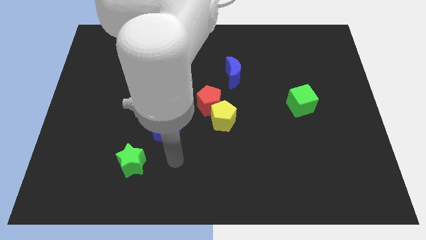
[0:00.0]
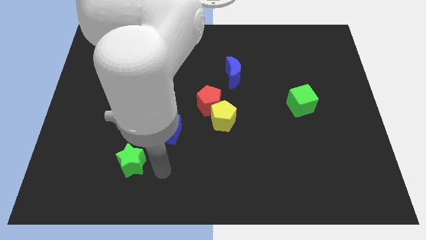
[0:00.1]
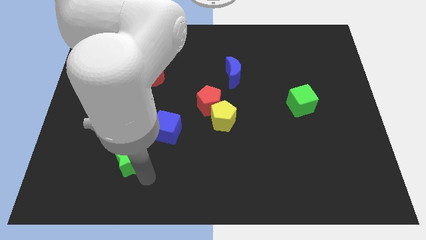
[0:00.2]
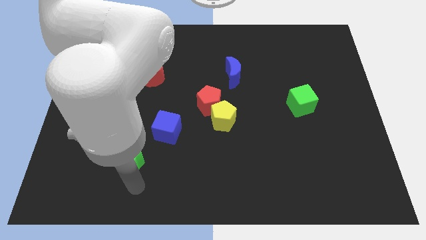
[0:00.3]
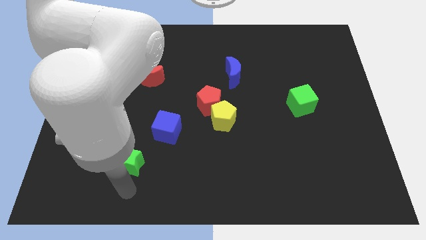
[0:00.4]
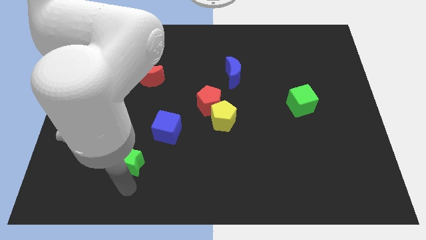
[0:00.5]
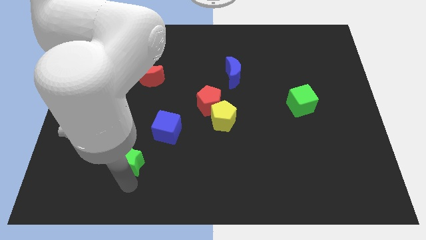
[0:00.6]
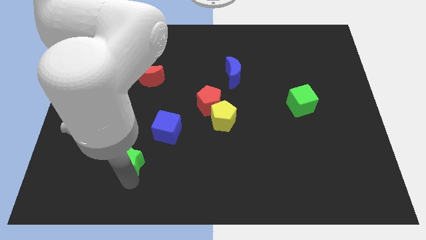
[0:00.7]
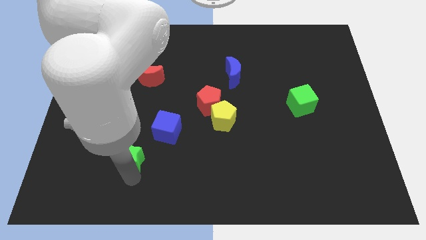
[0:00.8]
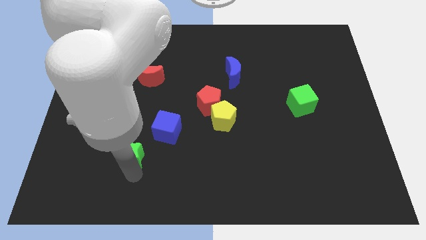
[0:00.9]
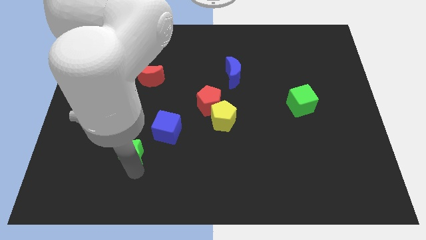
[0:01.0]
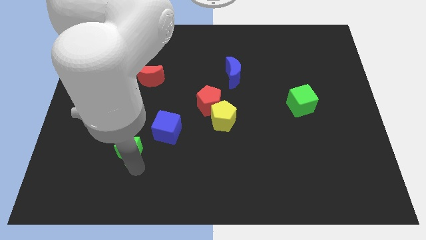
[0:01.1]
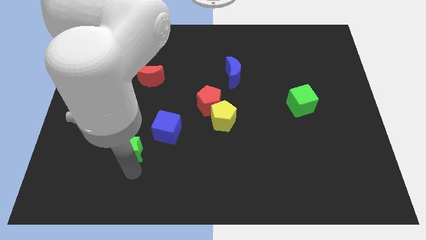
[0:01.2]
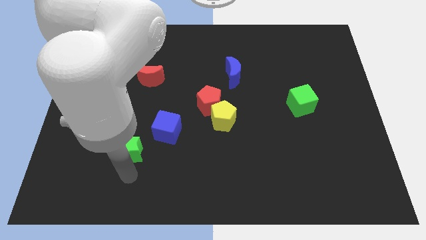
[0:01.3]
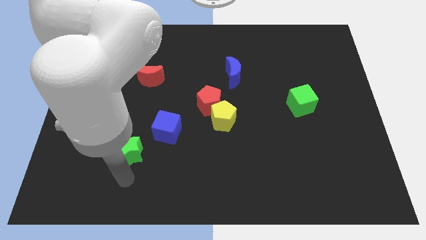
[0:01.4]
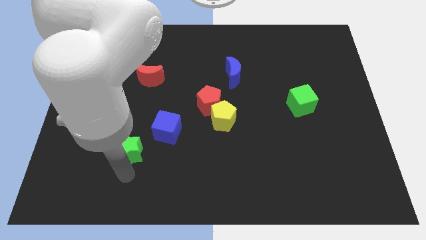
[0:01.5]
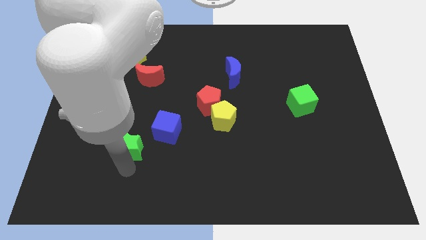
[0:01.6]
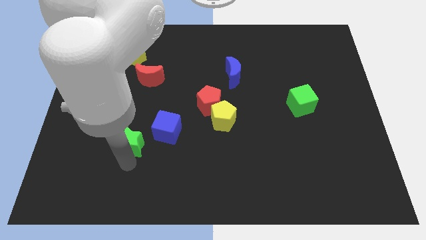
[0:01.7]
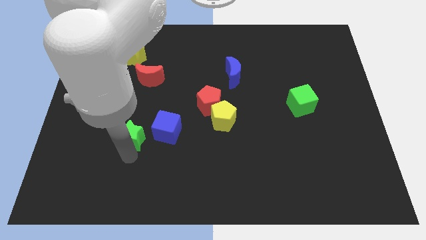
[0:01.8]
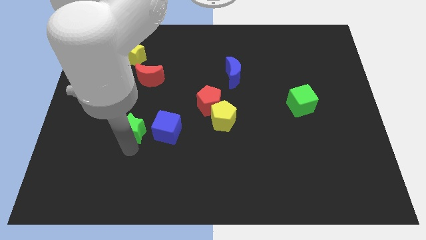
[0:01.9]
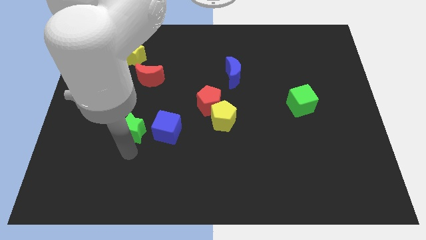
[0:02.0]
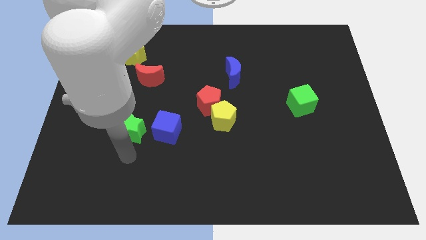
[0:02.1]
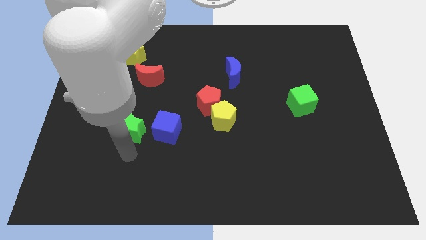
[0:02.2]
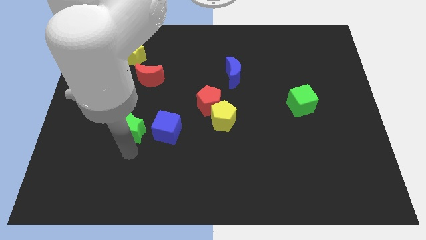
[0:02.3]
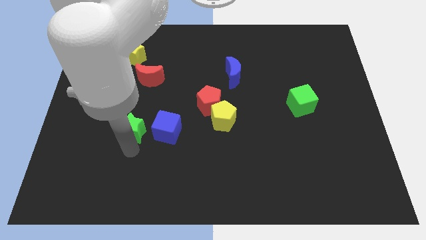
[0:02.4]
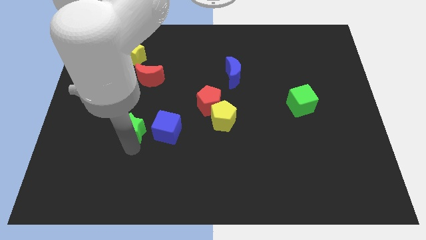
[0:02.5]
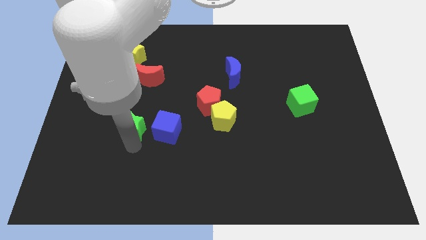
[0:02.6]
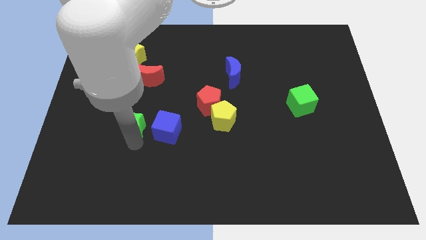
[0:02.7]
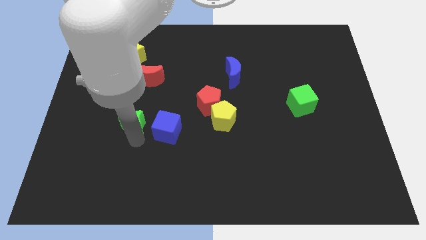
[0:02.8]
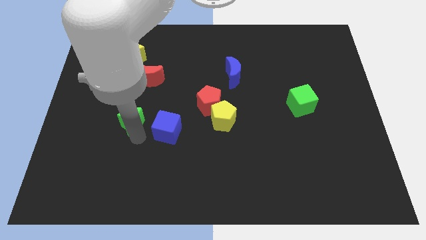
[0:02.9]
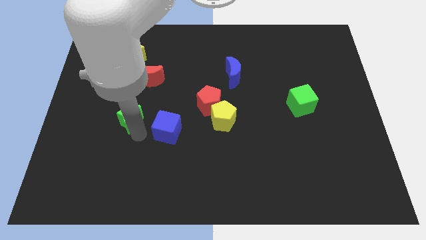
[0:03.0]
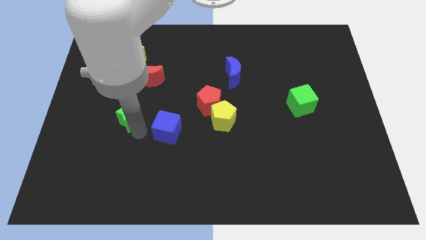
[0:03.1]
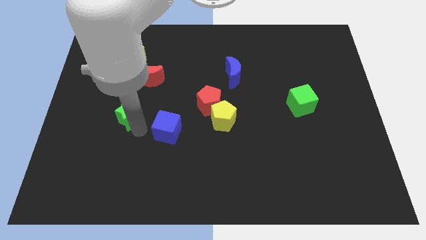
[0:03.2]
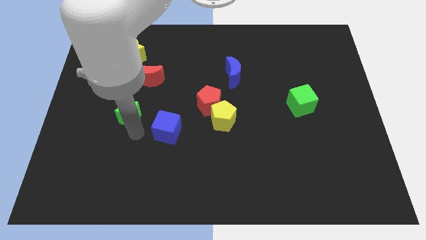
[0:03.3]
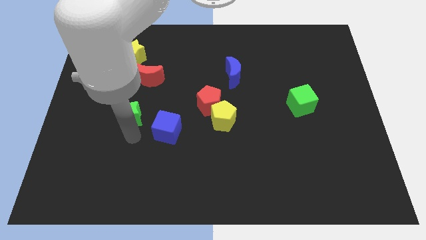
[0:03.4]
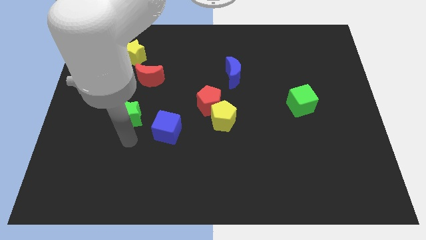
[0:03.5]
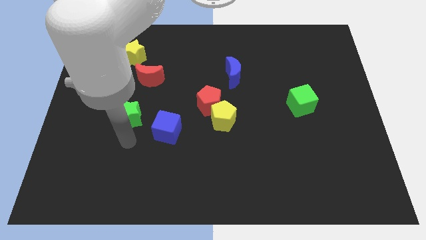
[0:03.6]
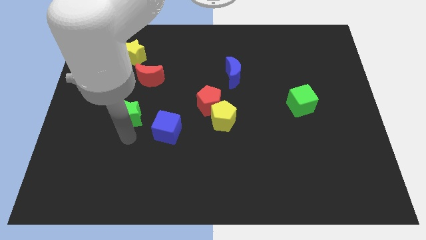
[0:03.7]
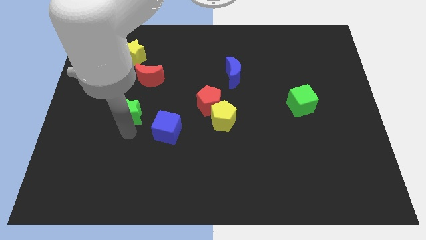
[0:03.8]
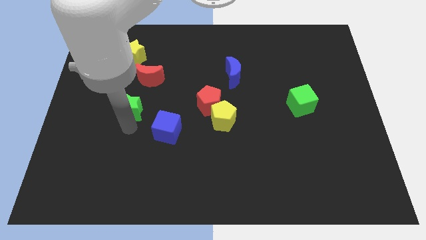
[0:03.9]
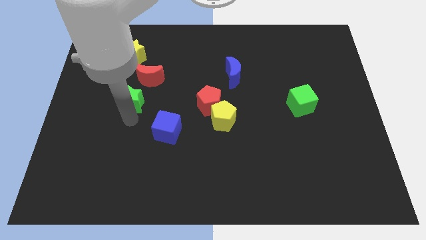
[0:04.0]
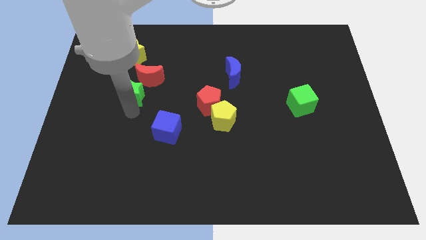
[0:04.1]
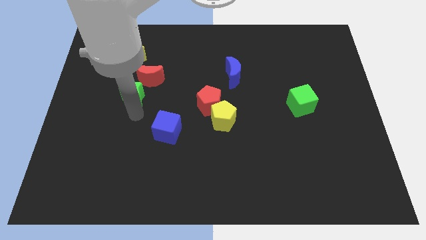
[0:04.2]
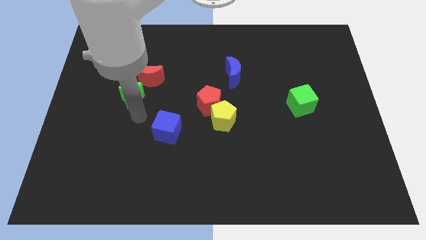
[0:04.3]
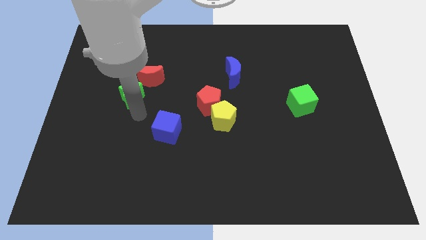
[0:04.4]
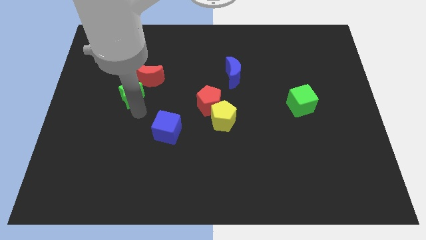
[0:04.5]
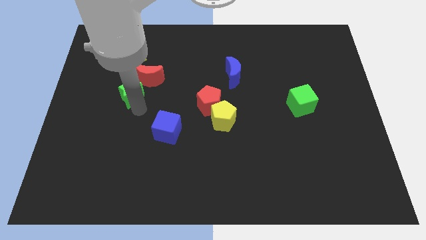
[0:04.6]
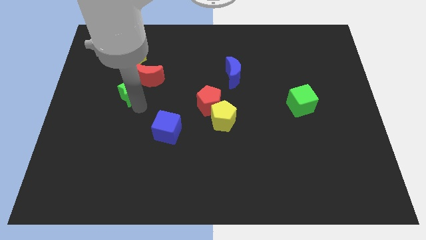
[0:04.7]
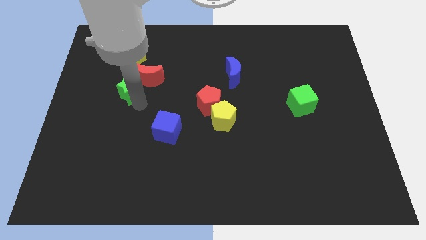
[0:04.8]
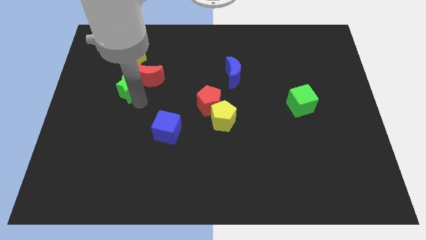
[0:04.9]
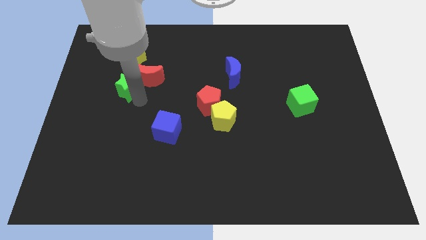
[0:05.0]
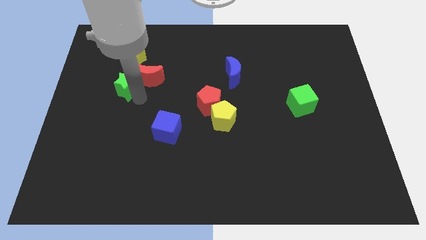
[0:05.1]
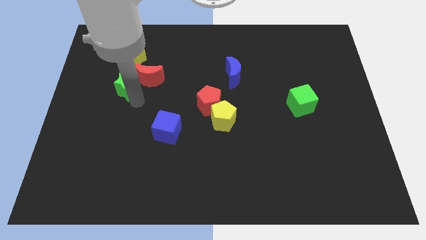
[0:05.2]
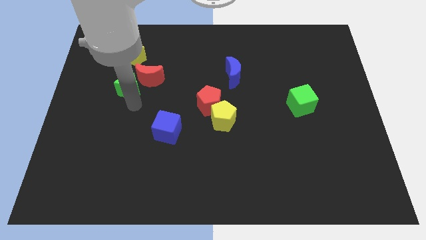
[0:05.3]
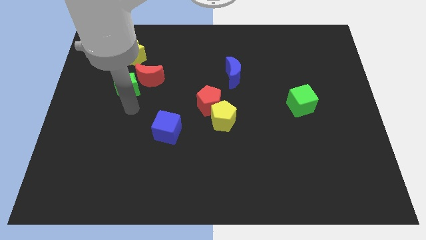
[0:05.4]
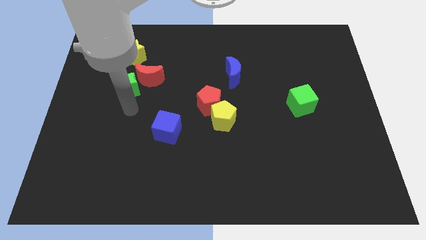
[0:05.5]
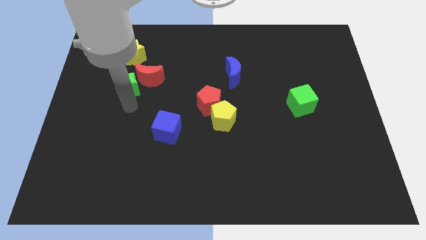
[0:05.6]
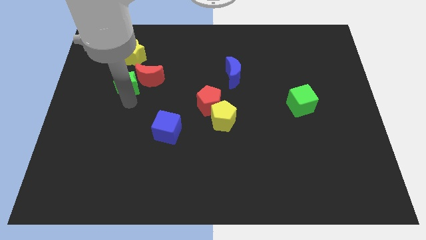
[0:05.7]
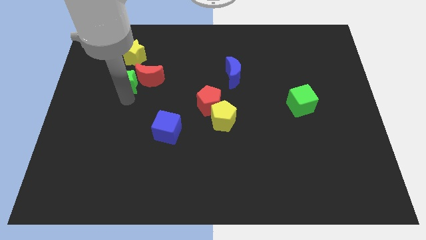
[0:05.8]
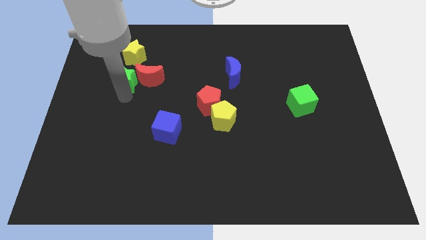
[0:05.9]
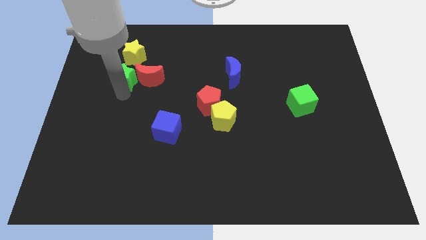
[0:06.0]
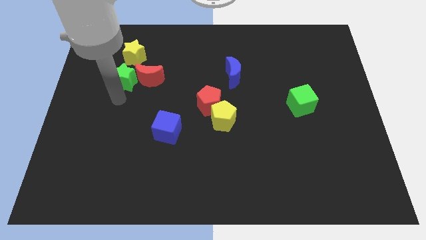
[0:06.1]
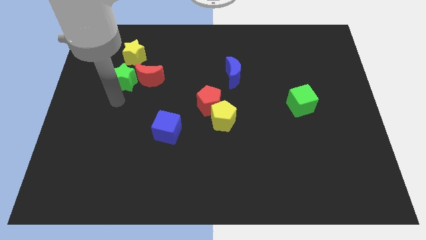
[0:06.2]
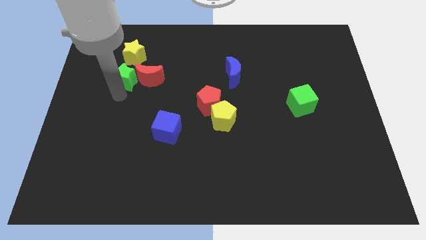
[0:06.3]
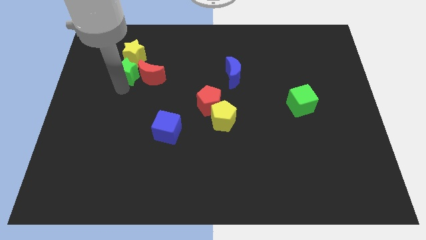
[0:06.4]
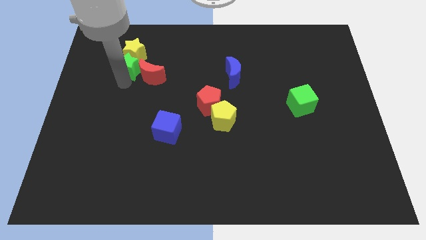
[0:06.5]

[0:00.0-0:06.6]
put the green star to the yellow star
